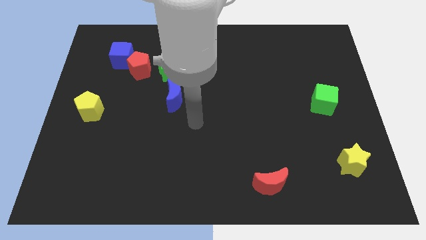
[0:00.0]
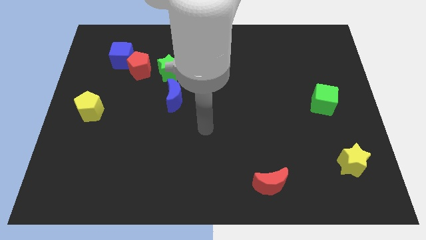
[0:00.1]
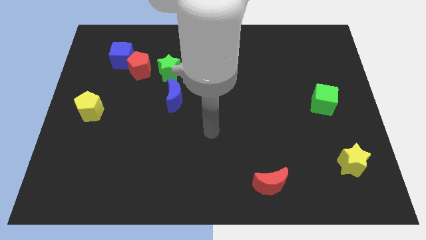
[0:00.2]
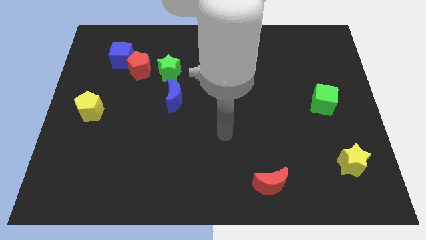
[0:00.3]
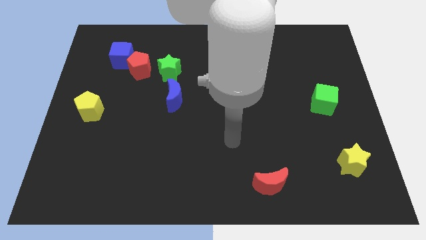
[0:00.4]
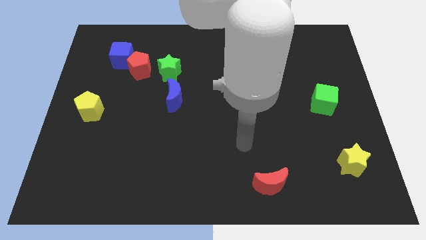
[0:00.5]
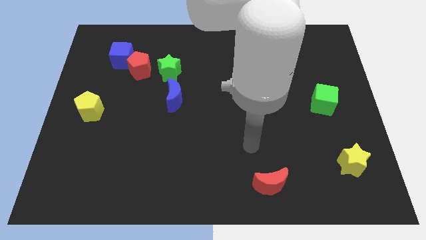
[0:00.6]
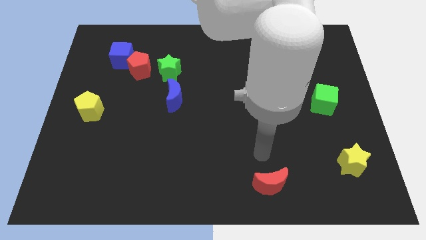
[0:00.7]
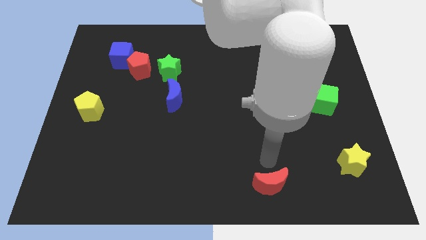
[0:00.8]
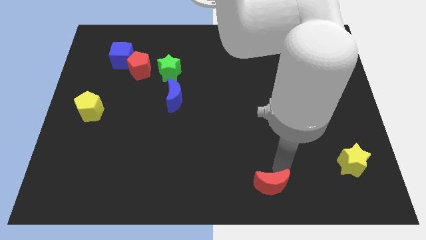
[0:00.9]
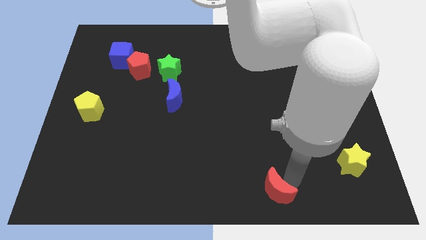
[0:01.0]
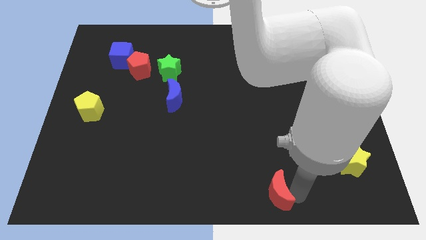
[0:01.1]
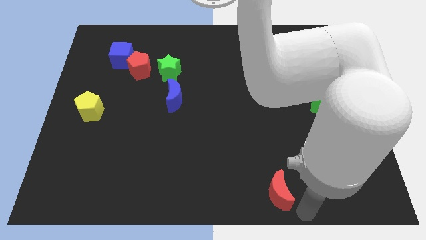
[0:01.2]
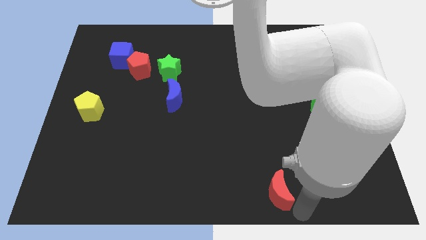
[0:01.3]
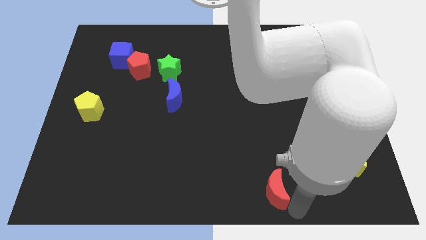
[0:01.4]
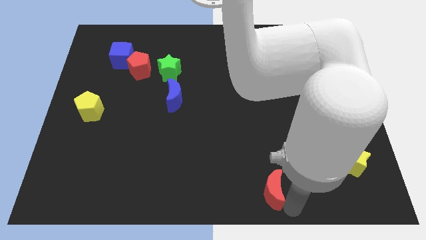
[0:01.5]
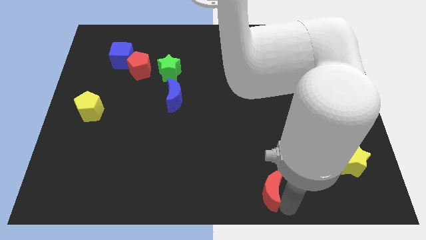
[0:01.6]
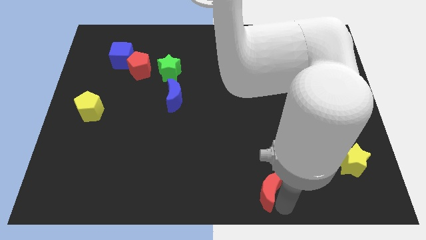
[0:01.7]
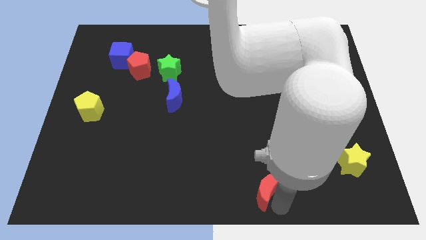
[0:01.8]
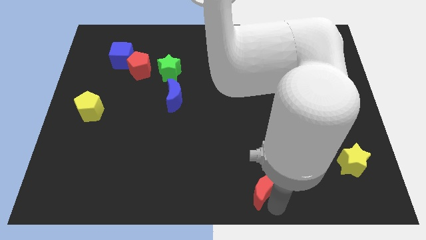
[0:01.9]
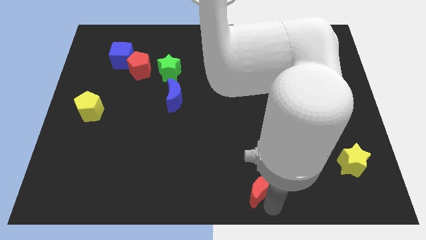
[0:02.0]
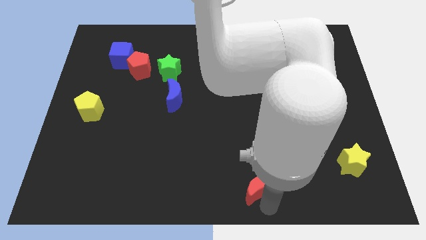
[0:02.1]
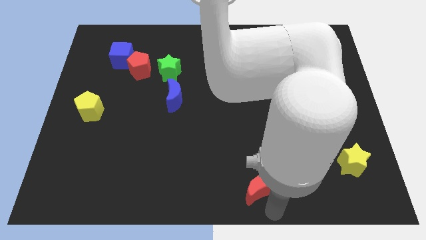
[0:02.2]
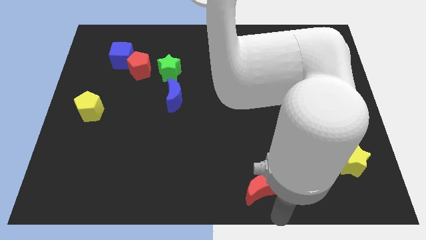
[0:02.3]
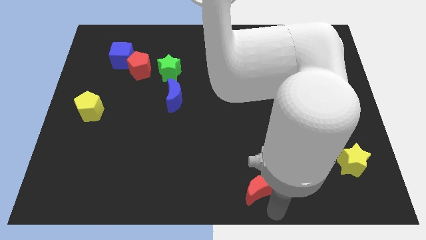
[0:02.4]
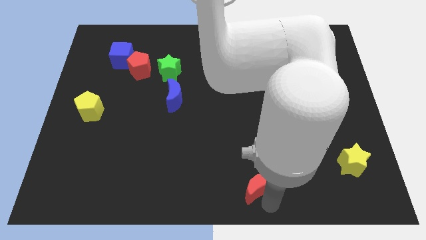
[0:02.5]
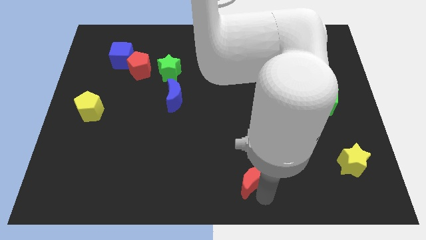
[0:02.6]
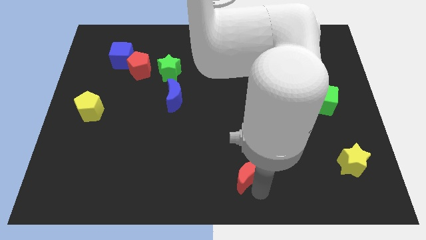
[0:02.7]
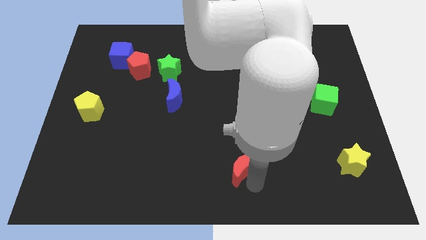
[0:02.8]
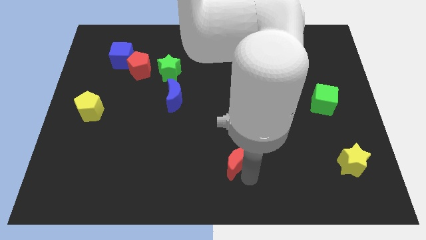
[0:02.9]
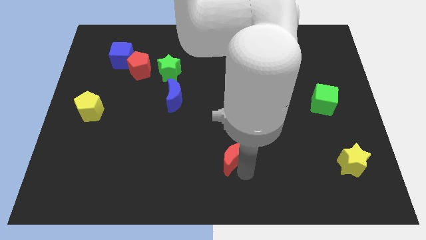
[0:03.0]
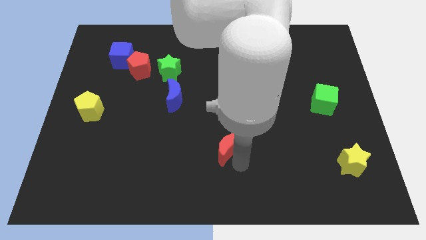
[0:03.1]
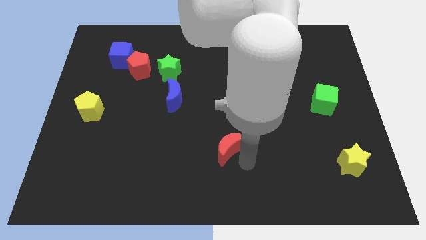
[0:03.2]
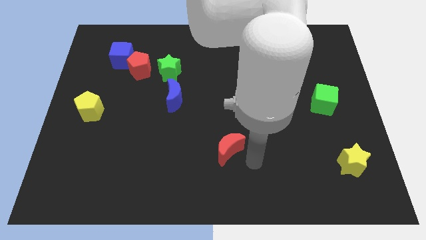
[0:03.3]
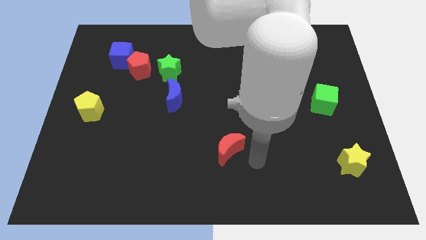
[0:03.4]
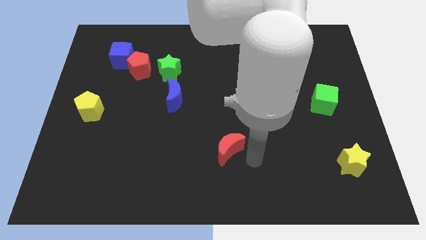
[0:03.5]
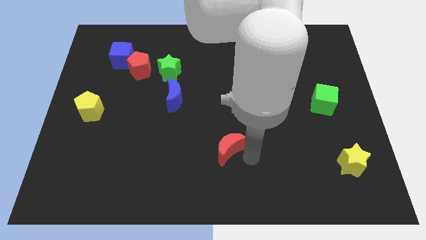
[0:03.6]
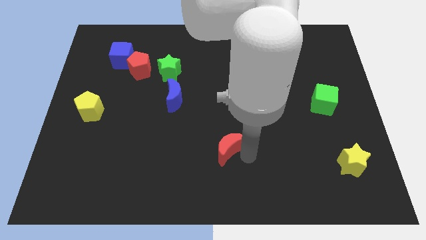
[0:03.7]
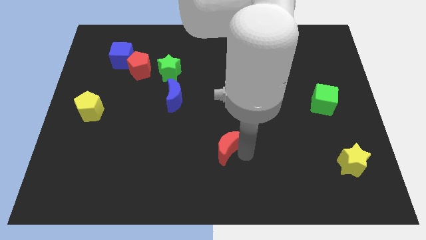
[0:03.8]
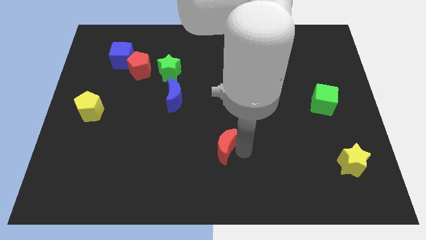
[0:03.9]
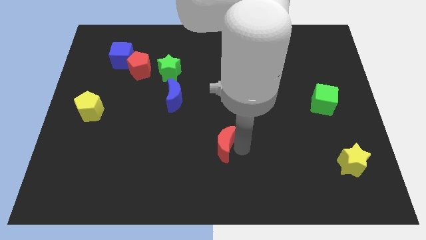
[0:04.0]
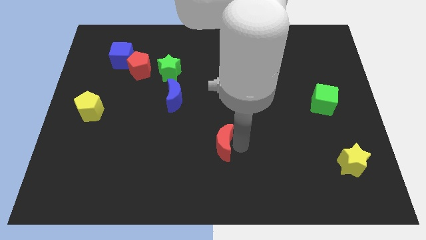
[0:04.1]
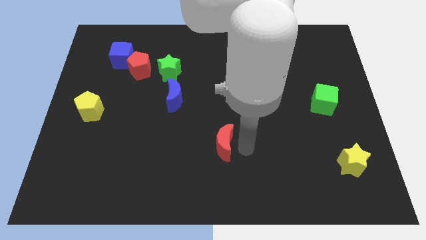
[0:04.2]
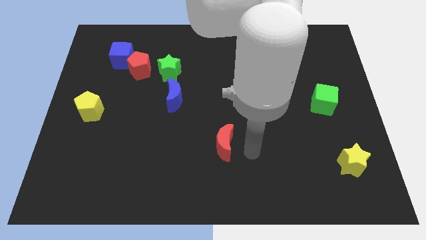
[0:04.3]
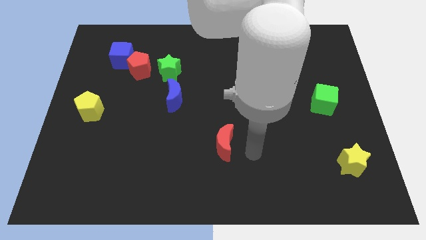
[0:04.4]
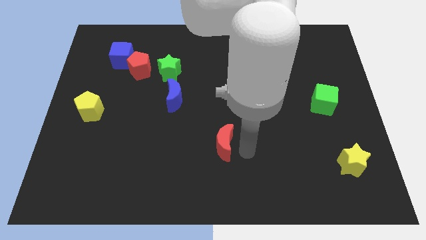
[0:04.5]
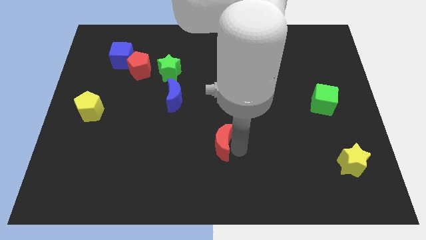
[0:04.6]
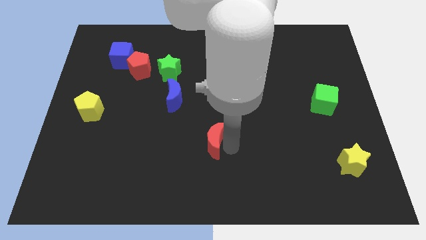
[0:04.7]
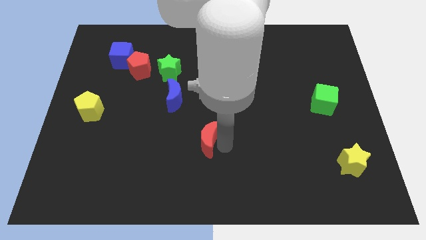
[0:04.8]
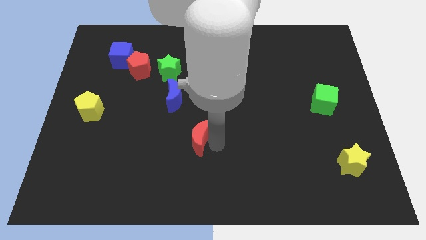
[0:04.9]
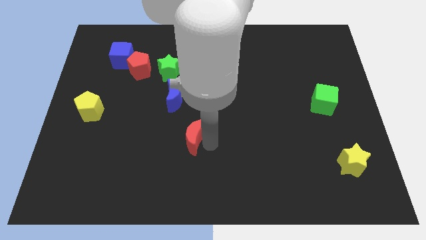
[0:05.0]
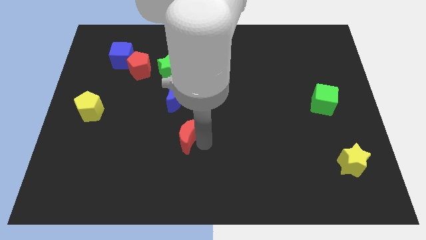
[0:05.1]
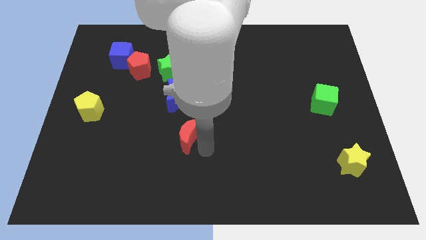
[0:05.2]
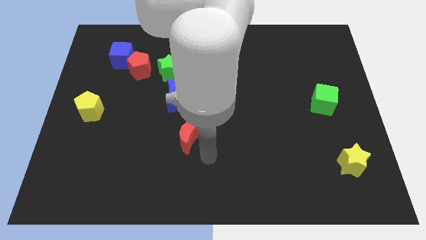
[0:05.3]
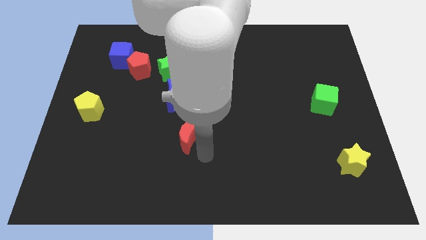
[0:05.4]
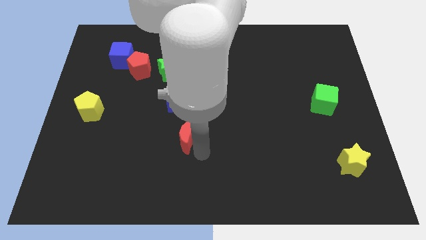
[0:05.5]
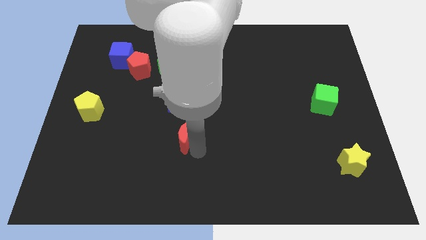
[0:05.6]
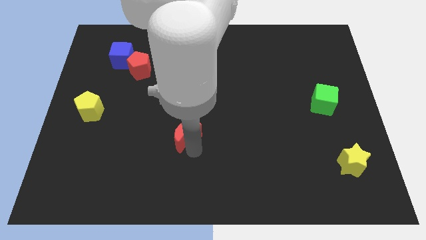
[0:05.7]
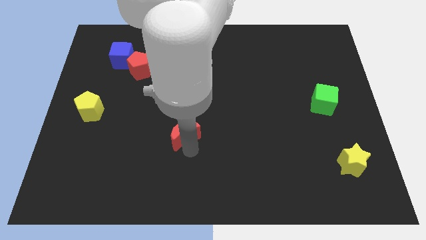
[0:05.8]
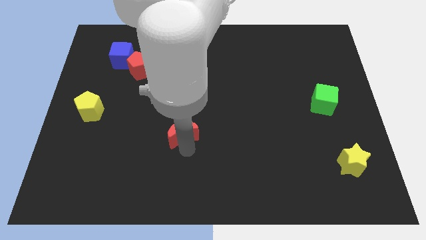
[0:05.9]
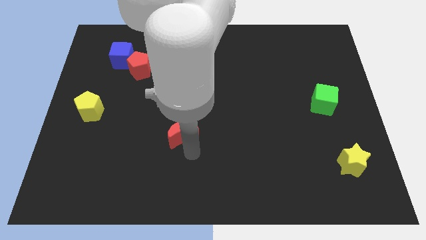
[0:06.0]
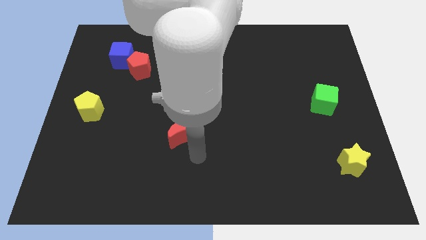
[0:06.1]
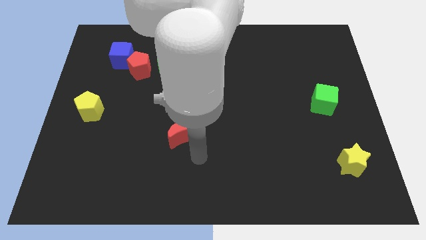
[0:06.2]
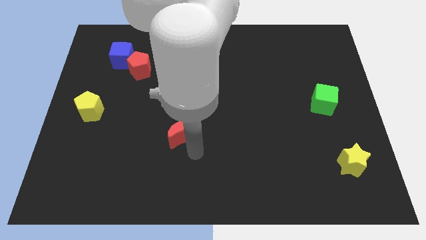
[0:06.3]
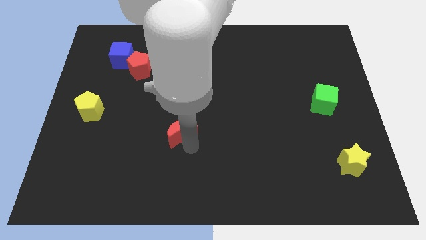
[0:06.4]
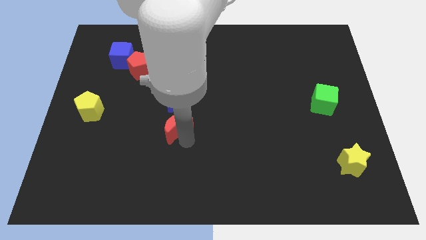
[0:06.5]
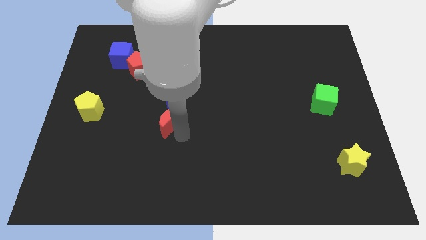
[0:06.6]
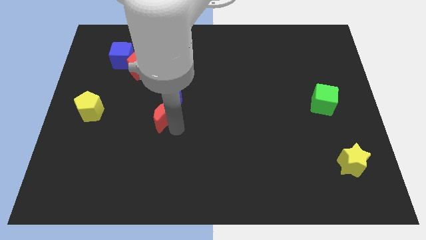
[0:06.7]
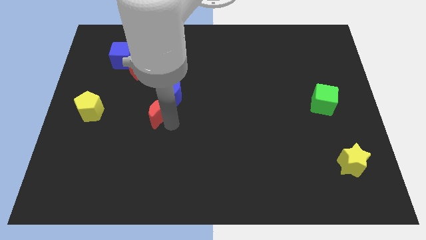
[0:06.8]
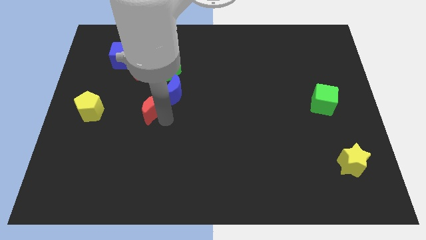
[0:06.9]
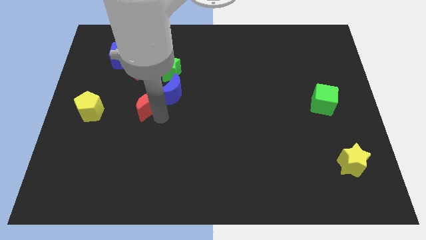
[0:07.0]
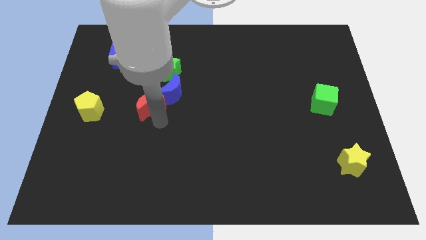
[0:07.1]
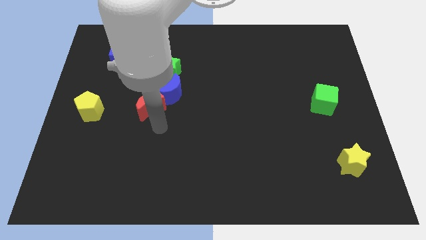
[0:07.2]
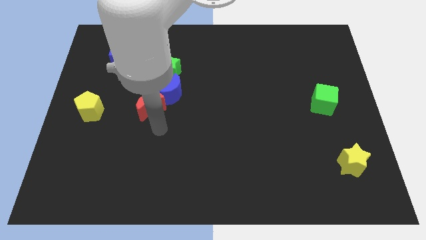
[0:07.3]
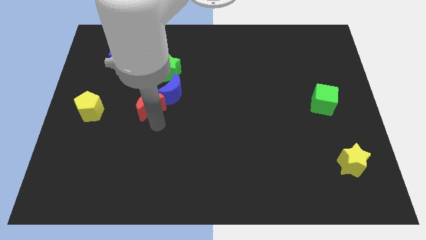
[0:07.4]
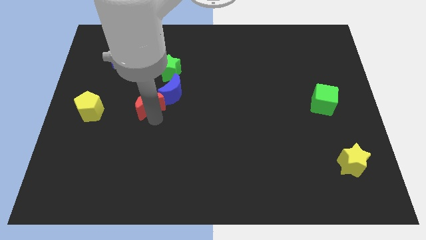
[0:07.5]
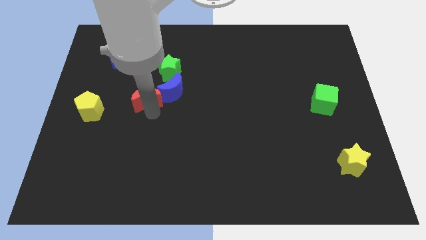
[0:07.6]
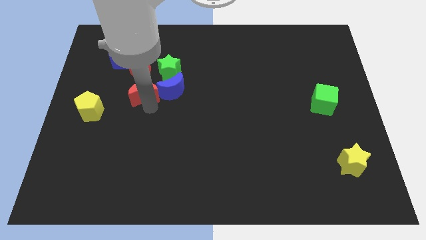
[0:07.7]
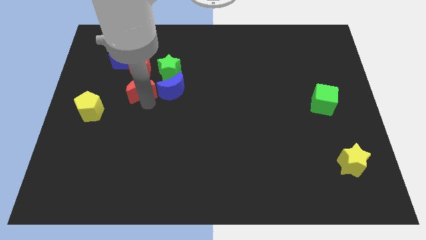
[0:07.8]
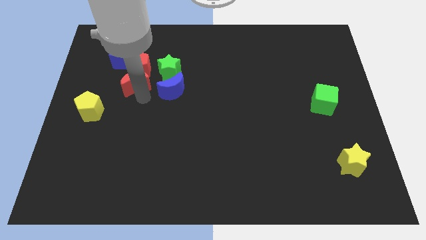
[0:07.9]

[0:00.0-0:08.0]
put the red moon towards the red pentagon
